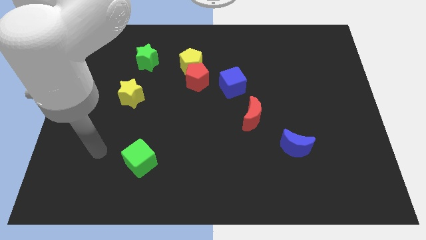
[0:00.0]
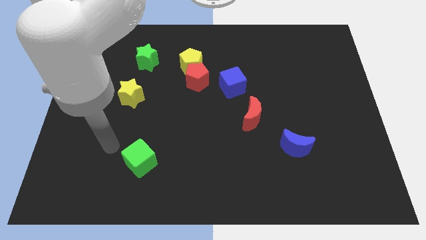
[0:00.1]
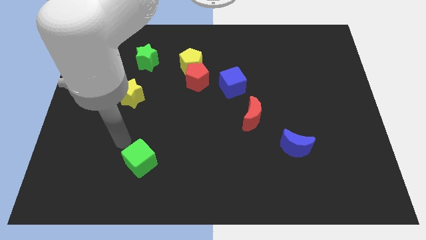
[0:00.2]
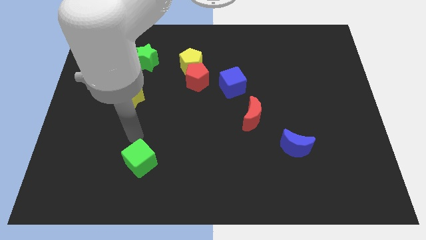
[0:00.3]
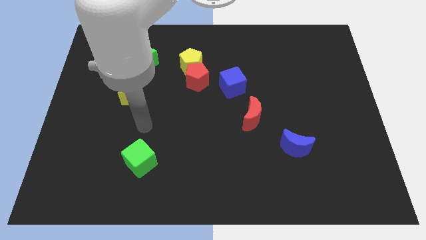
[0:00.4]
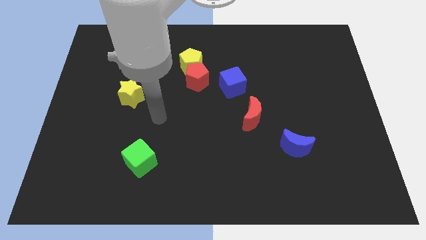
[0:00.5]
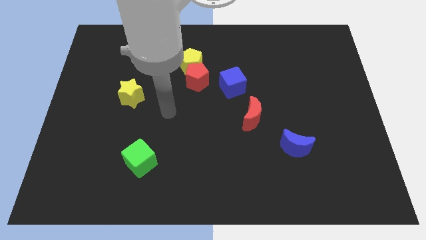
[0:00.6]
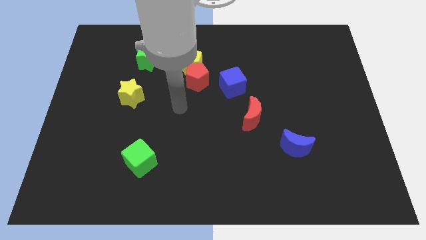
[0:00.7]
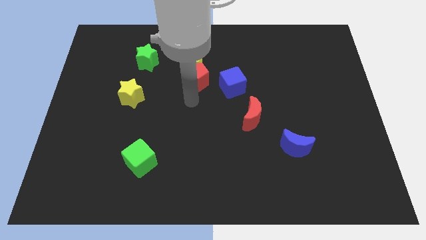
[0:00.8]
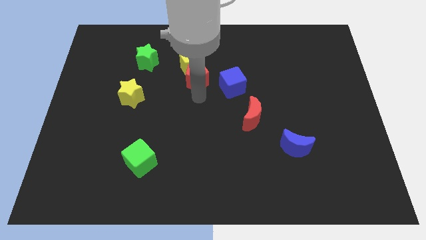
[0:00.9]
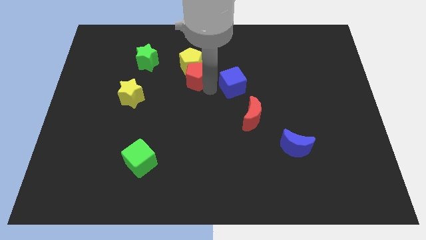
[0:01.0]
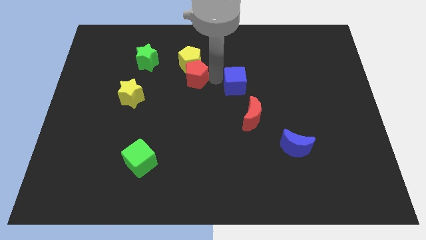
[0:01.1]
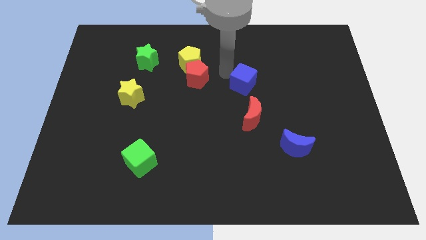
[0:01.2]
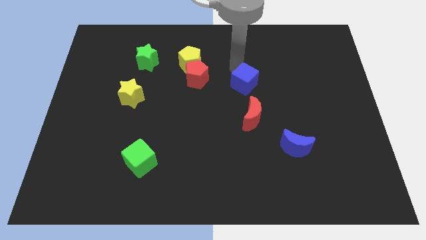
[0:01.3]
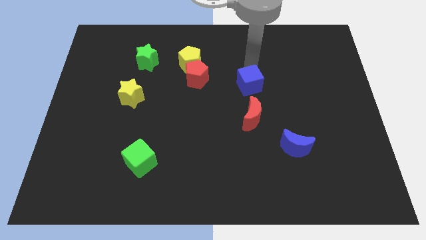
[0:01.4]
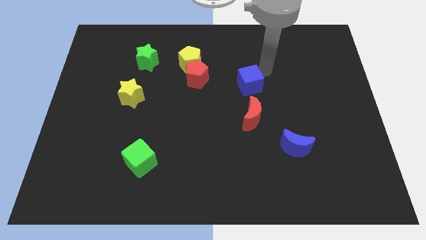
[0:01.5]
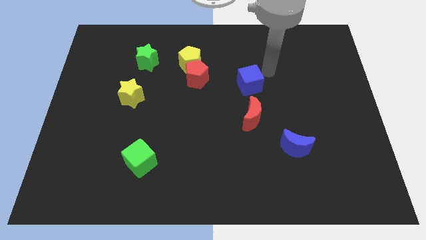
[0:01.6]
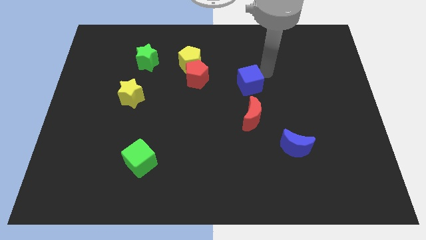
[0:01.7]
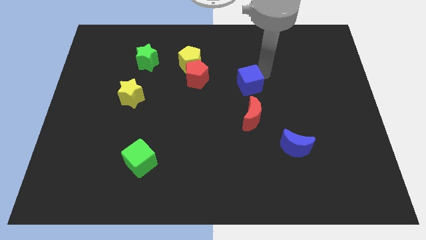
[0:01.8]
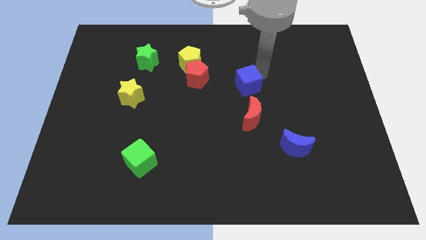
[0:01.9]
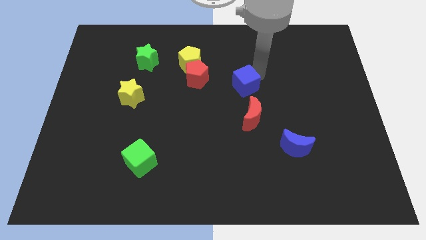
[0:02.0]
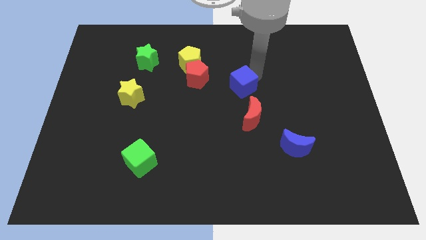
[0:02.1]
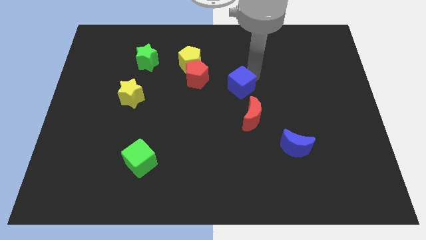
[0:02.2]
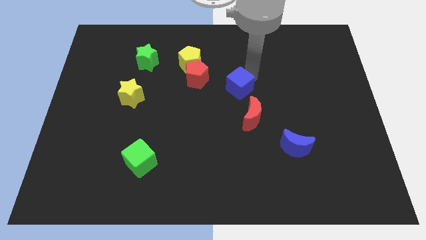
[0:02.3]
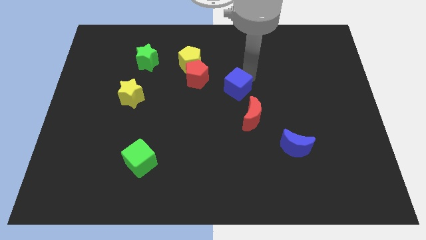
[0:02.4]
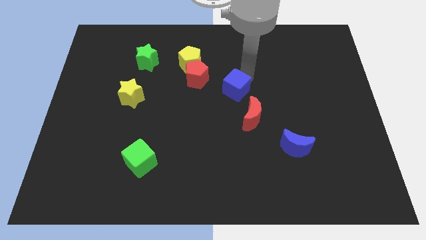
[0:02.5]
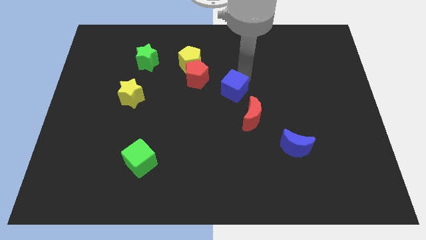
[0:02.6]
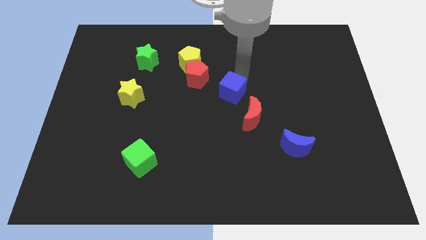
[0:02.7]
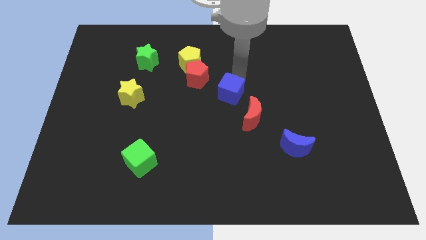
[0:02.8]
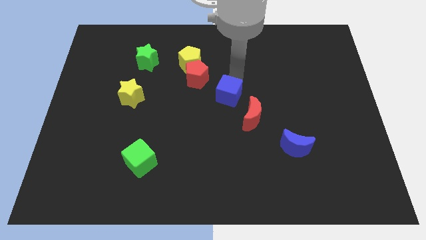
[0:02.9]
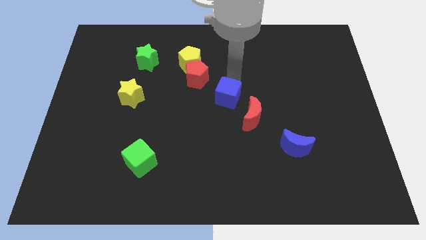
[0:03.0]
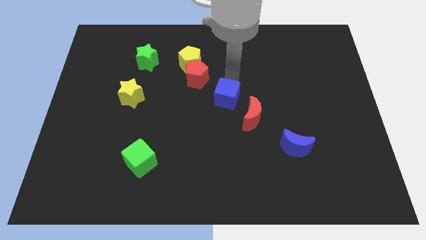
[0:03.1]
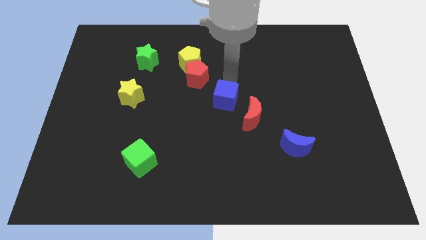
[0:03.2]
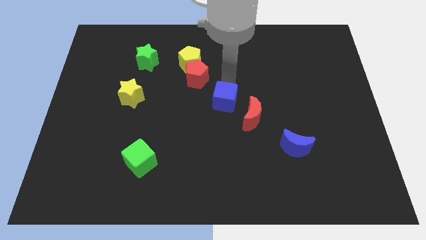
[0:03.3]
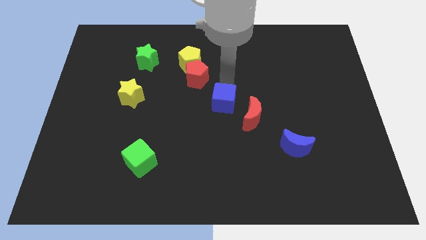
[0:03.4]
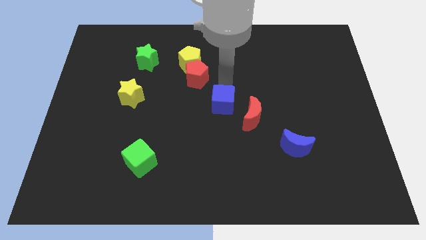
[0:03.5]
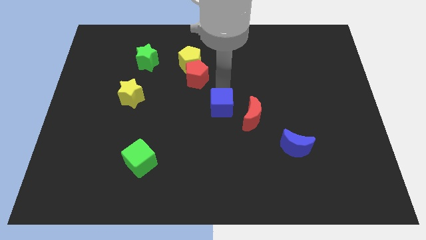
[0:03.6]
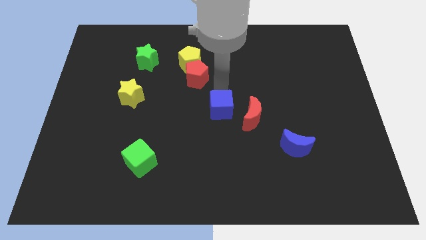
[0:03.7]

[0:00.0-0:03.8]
push the blue cube downwards a bit

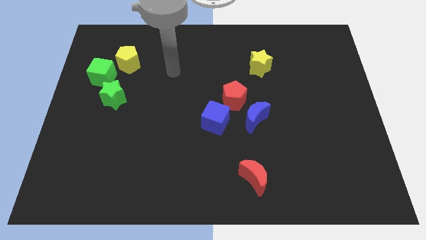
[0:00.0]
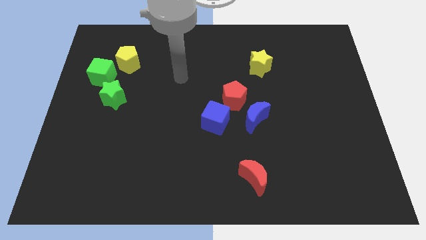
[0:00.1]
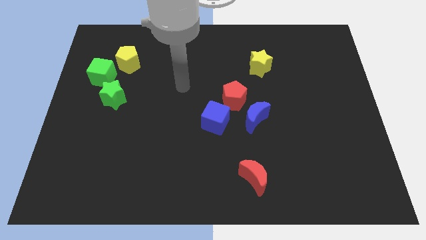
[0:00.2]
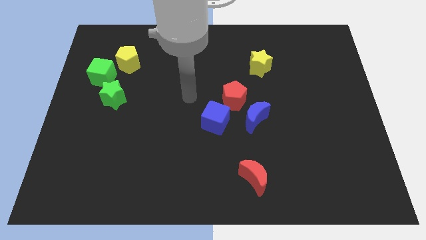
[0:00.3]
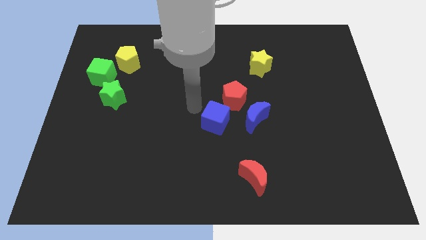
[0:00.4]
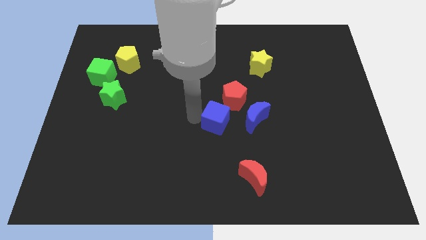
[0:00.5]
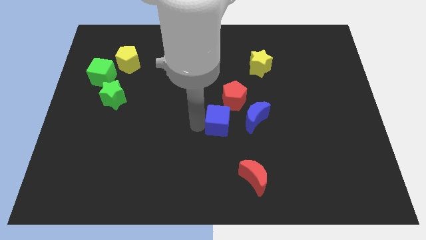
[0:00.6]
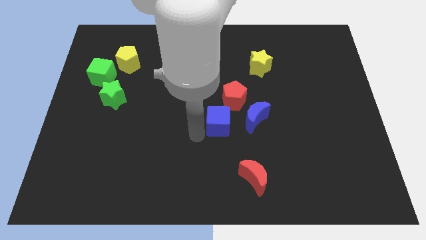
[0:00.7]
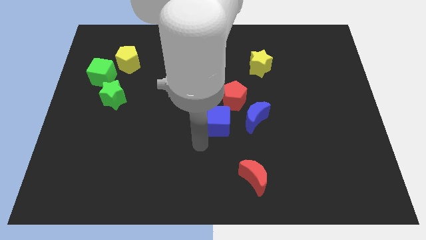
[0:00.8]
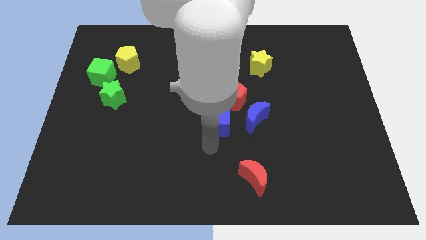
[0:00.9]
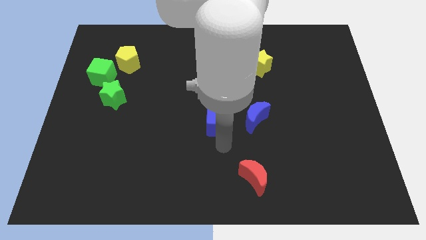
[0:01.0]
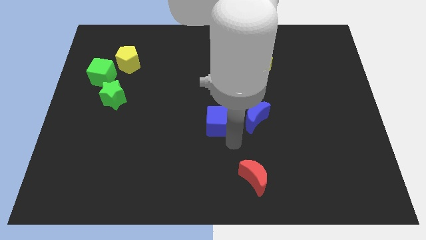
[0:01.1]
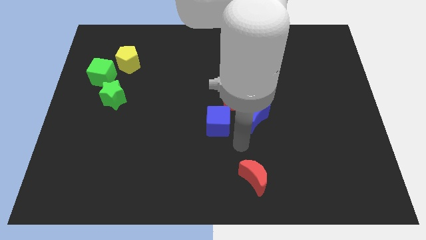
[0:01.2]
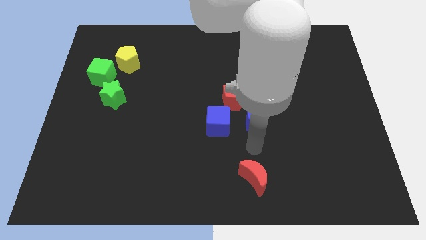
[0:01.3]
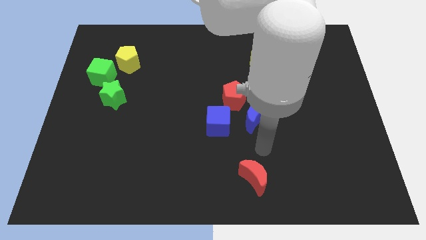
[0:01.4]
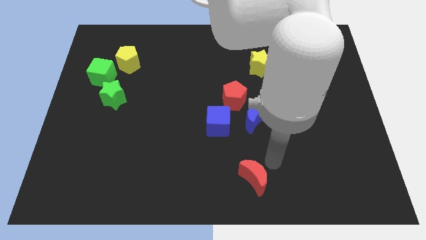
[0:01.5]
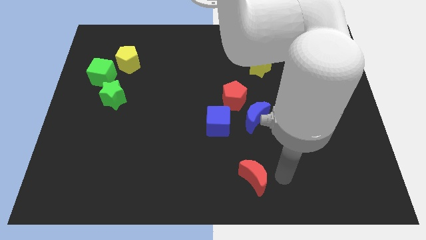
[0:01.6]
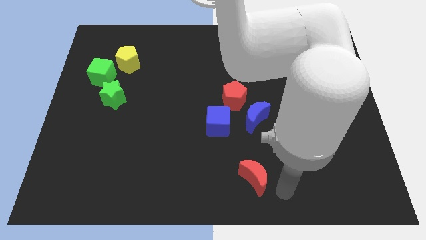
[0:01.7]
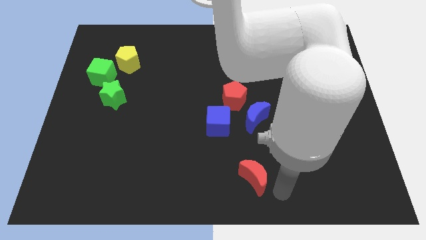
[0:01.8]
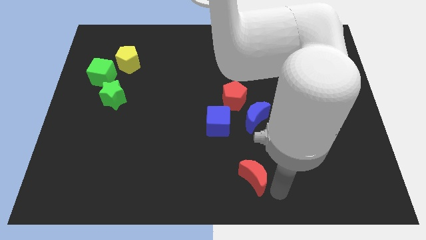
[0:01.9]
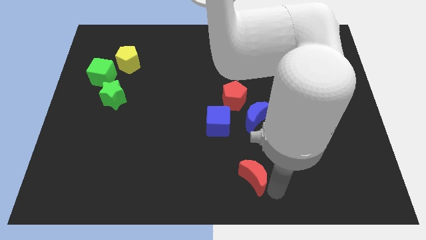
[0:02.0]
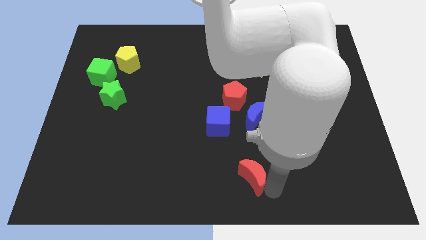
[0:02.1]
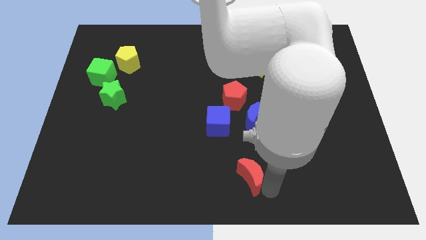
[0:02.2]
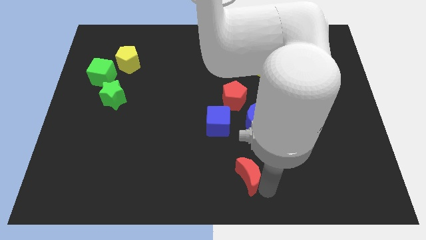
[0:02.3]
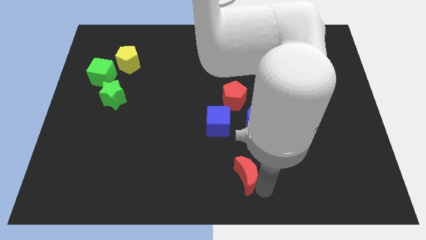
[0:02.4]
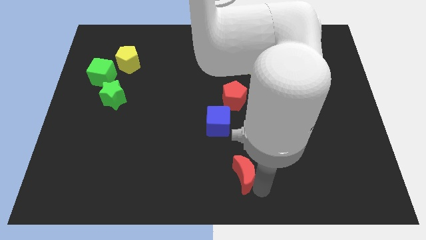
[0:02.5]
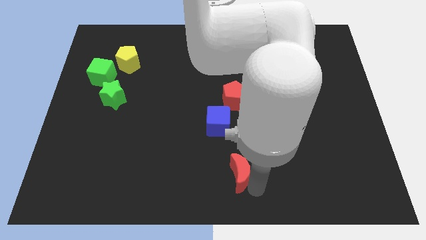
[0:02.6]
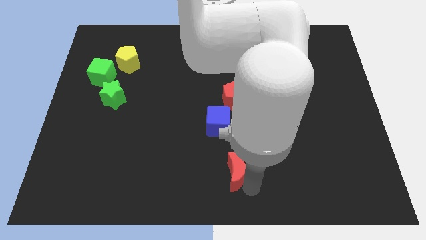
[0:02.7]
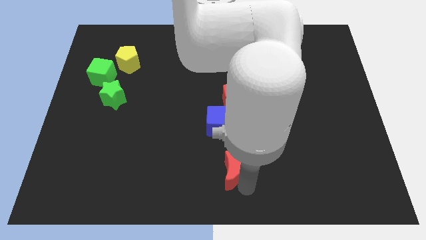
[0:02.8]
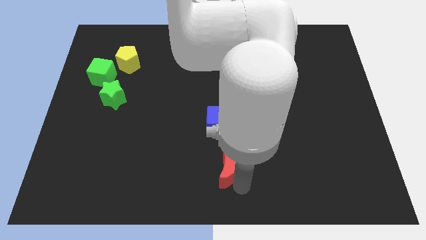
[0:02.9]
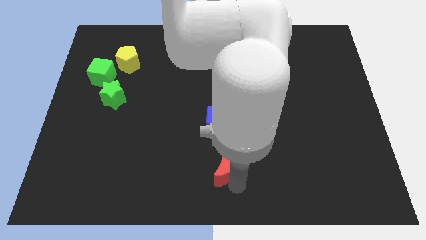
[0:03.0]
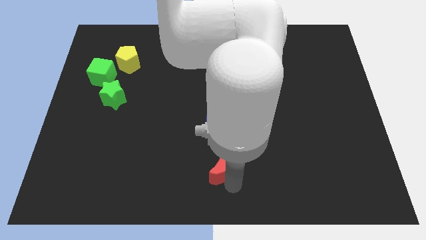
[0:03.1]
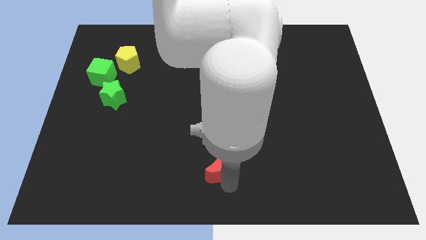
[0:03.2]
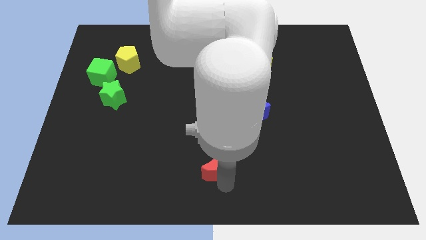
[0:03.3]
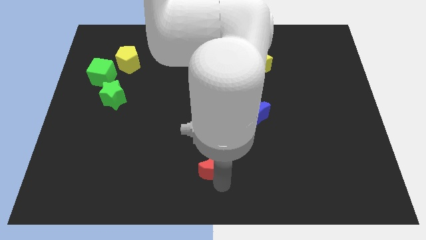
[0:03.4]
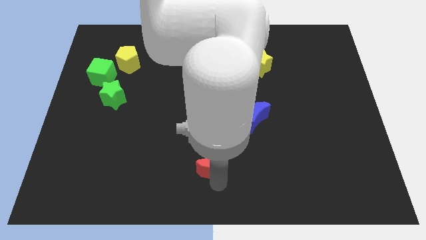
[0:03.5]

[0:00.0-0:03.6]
push the red moon up and then left somewhat
